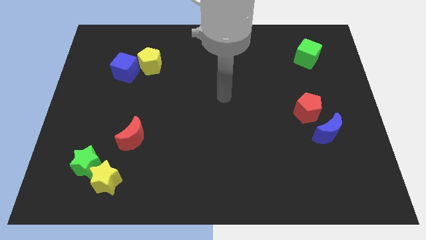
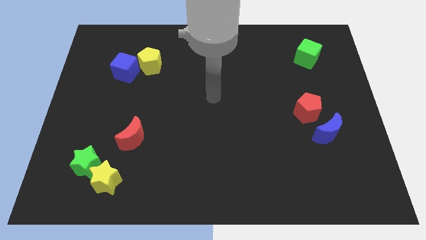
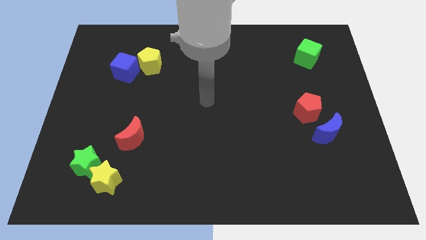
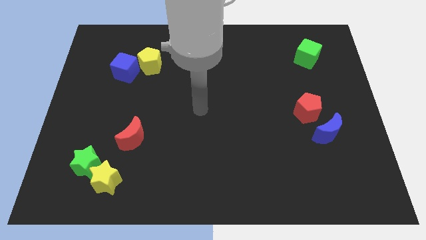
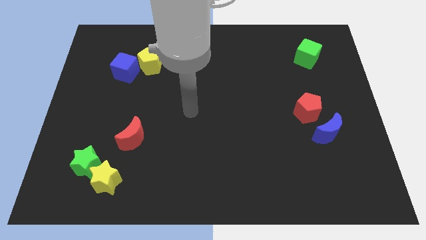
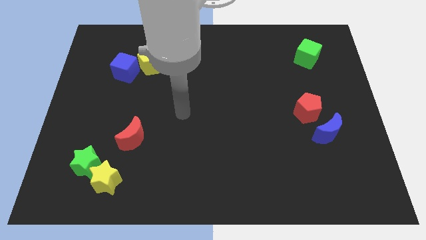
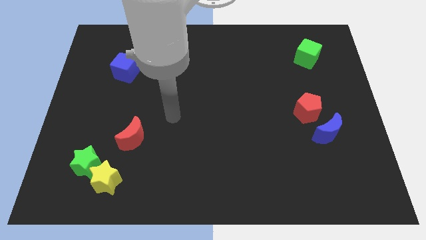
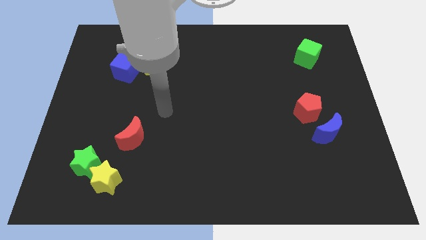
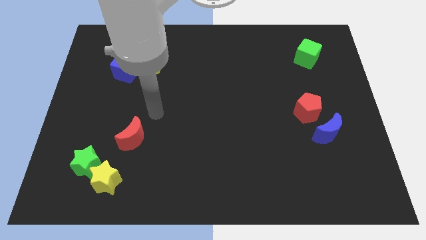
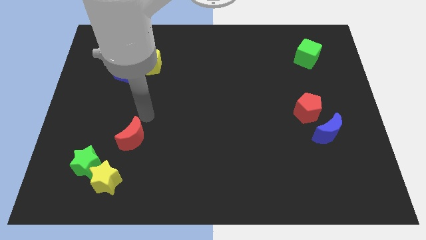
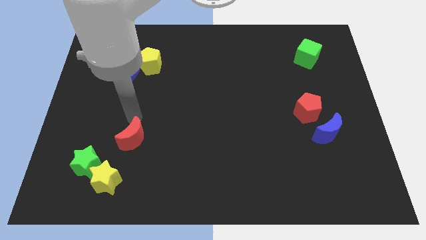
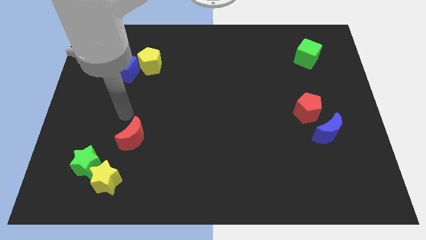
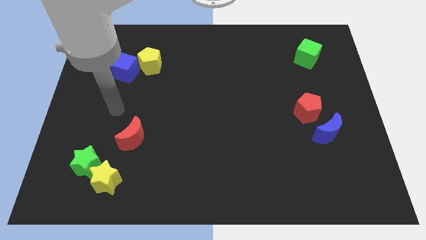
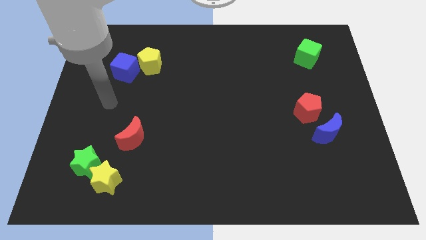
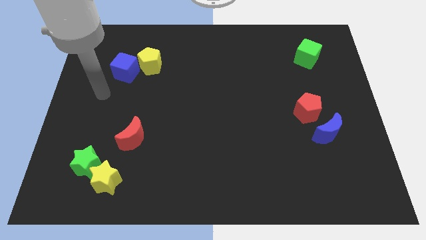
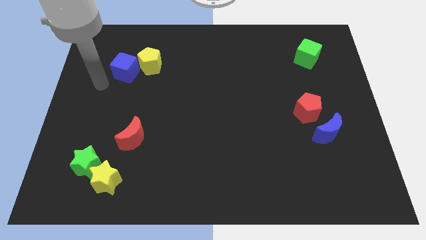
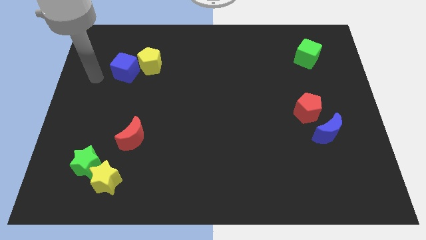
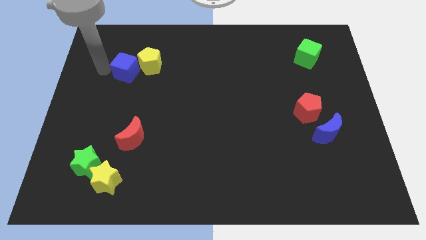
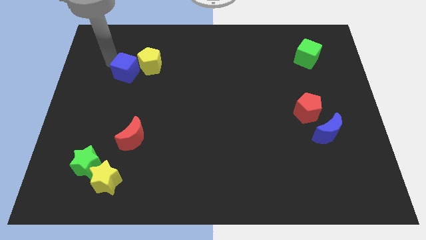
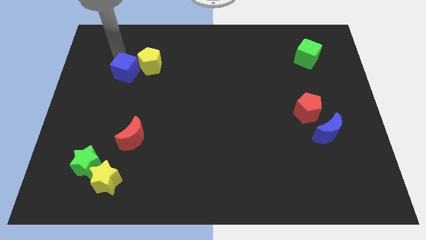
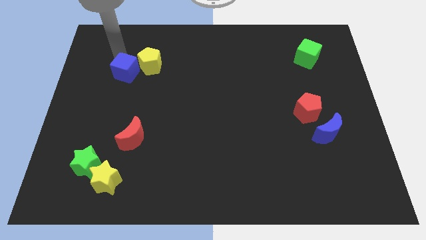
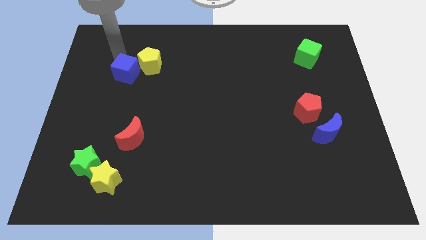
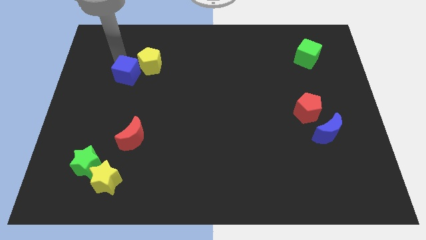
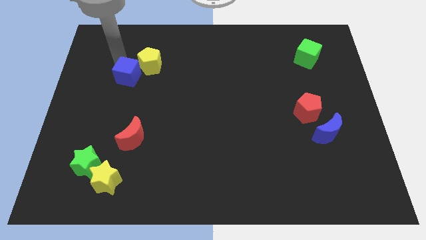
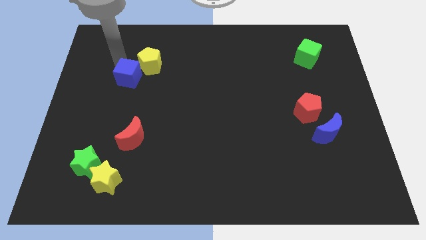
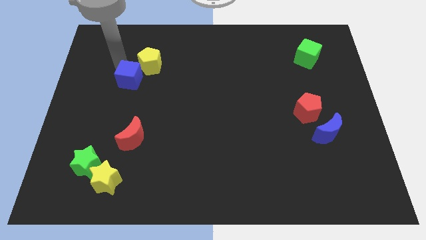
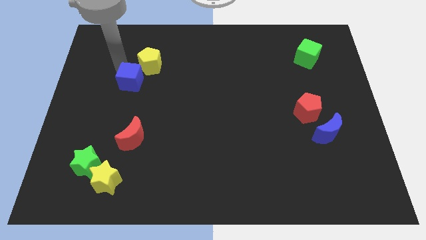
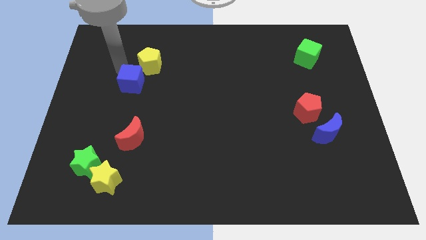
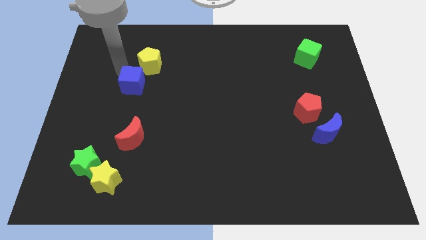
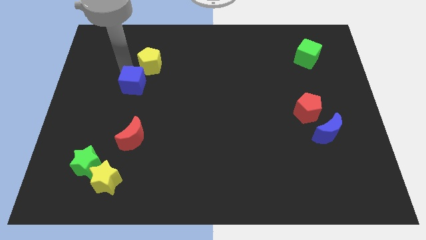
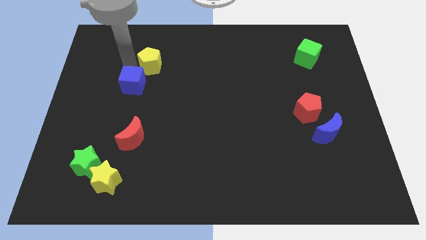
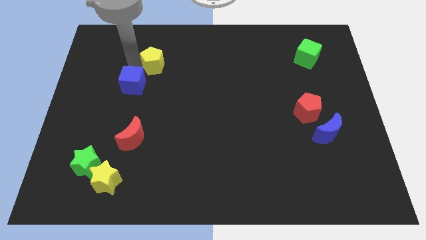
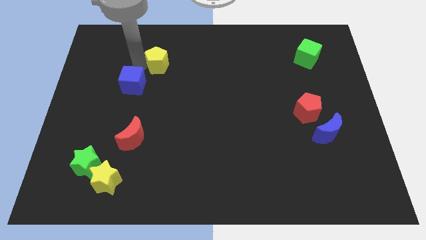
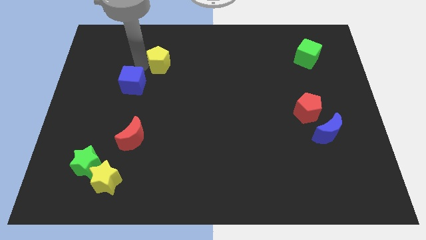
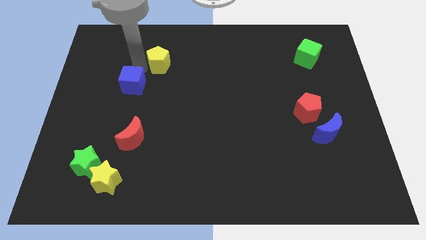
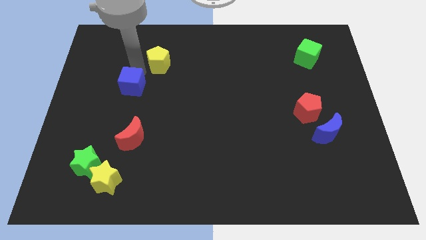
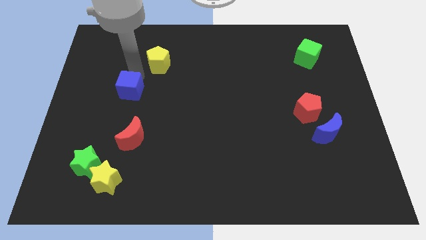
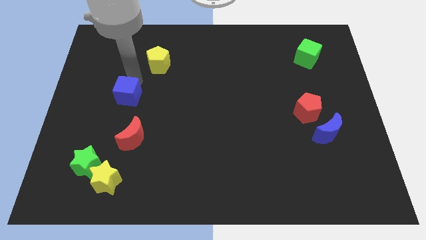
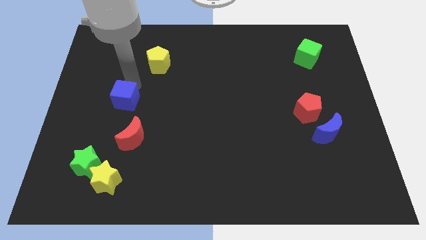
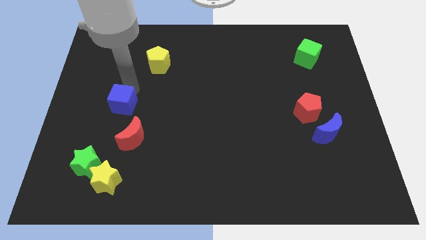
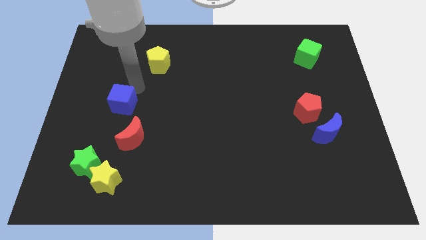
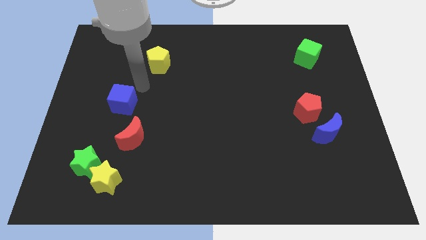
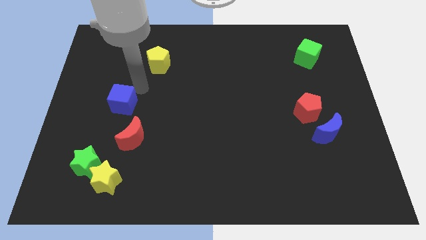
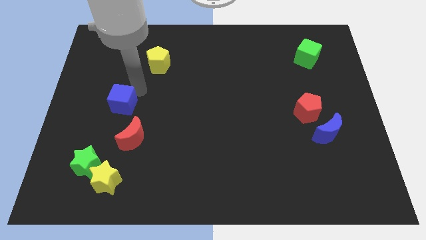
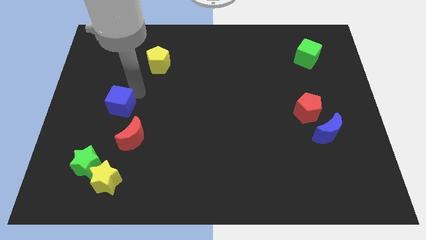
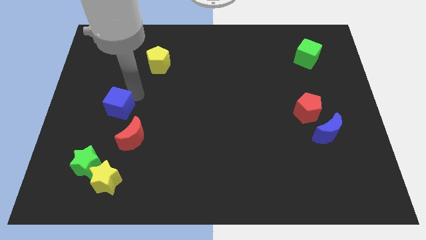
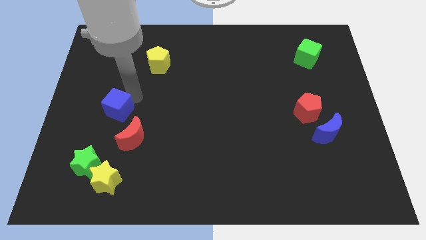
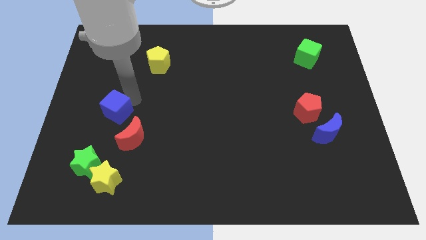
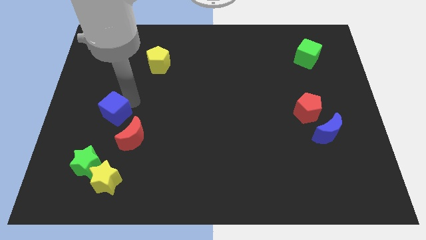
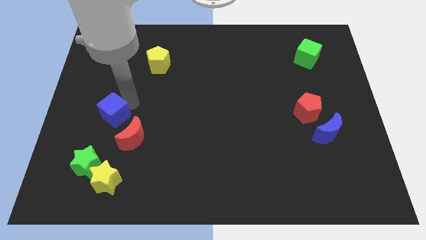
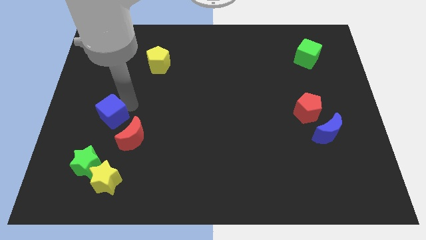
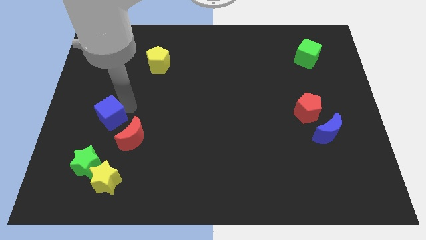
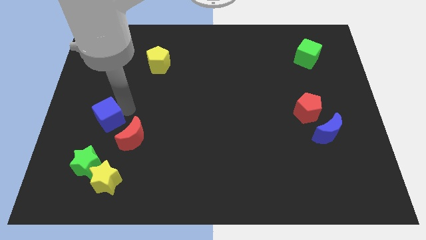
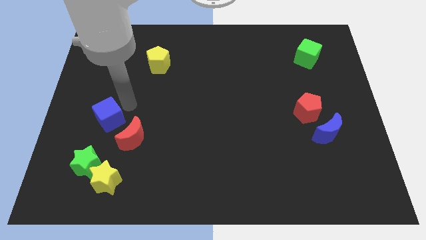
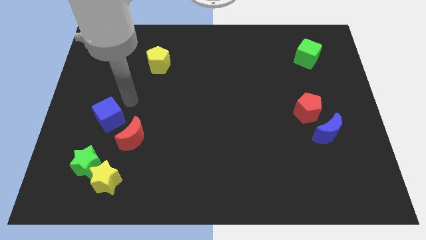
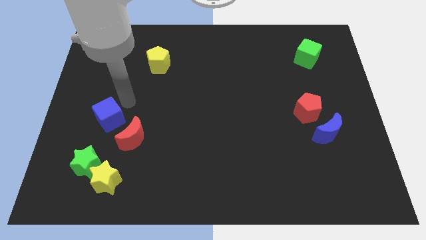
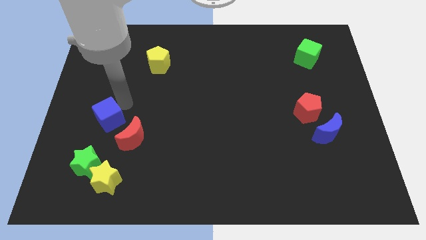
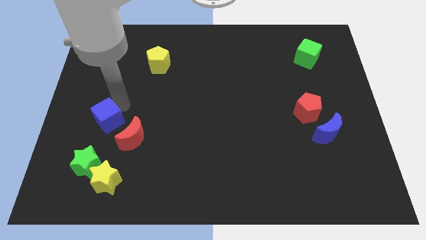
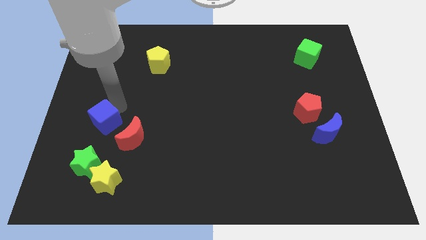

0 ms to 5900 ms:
push the blue cube just left of the red moon

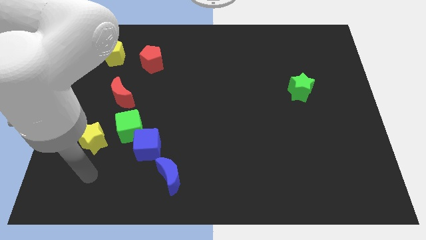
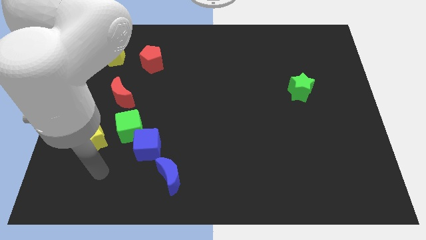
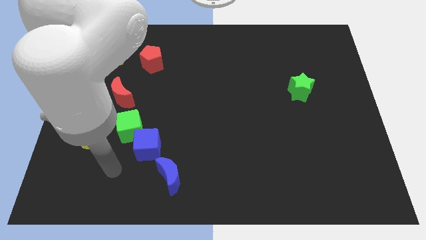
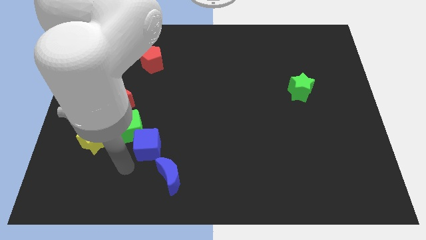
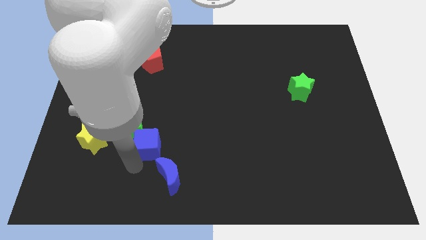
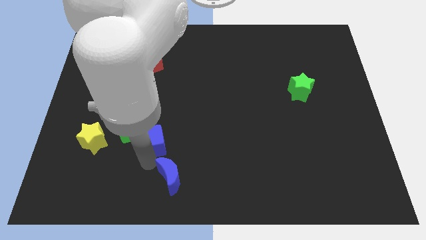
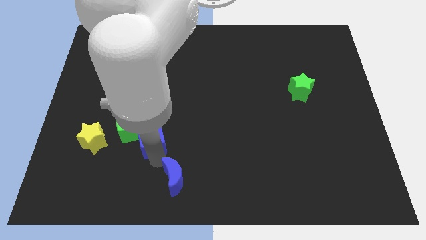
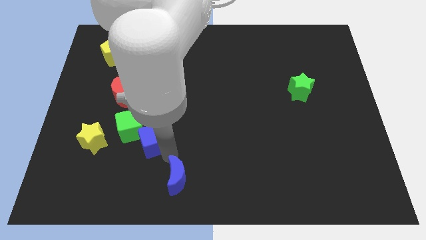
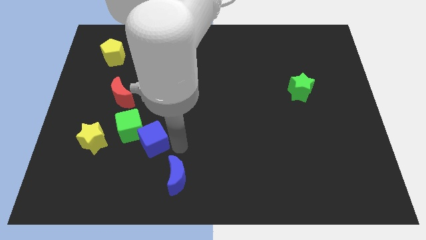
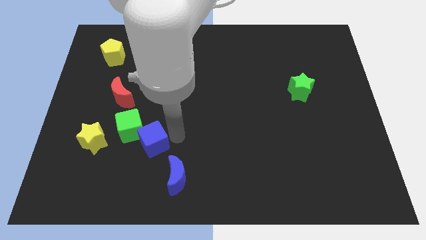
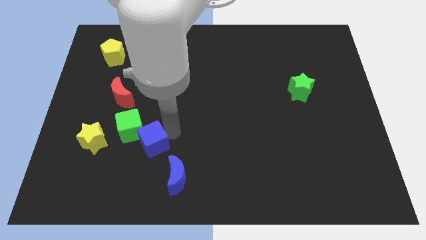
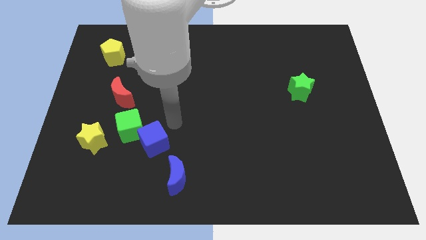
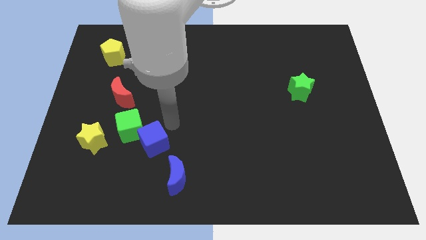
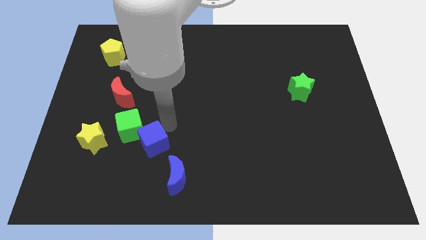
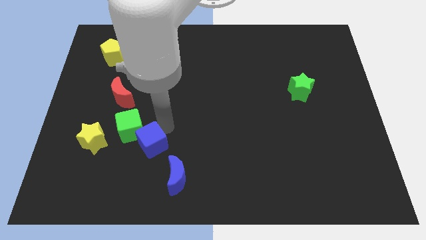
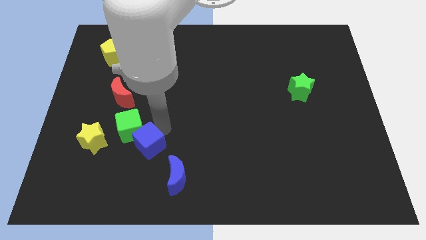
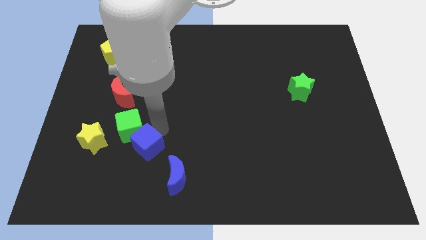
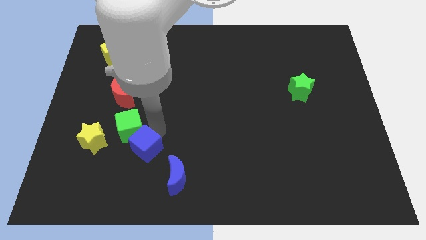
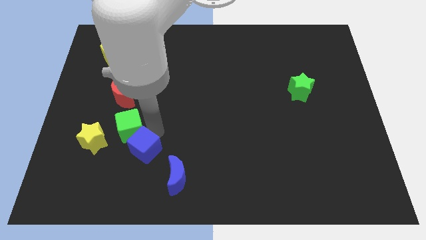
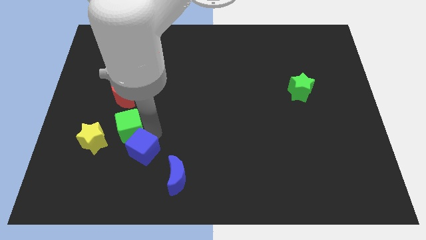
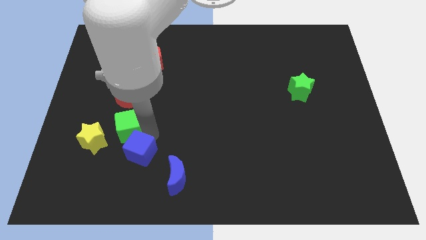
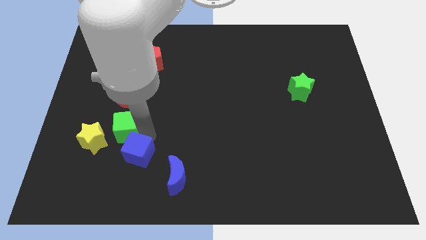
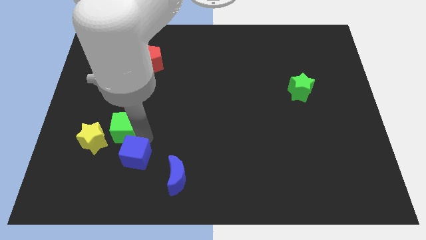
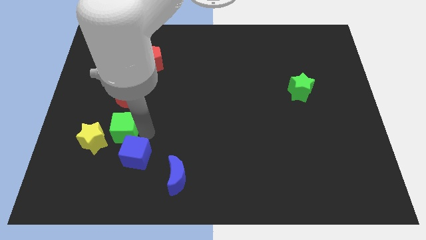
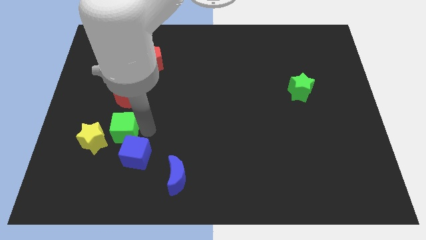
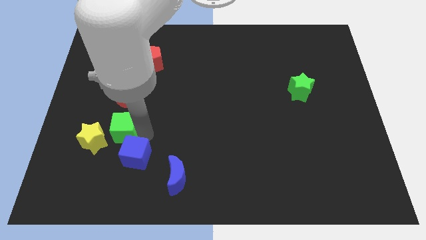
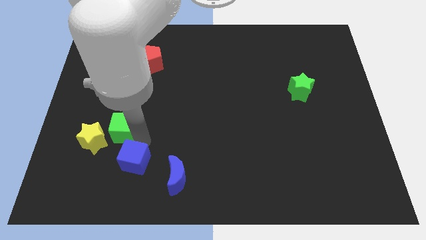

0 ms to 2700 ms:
move the blue cube left of the blue moon
